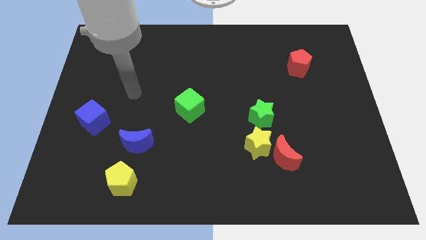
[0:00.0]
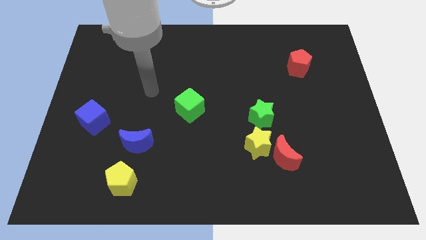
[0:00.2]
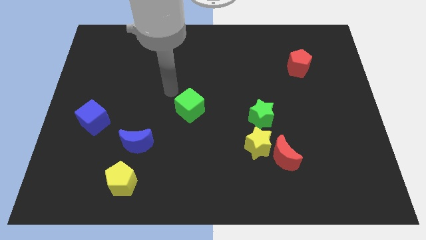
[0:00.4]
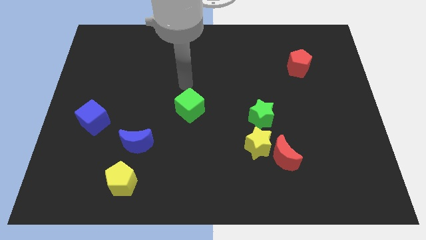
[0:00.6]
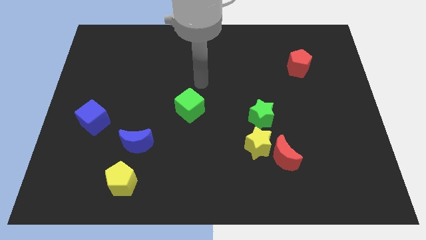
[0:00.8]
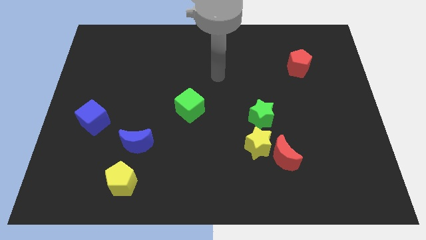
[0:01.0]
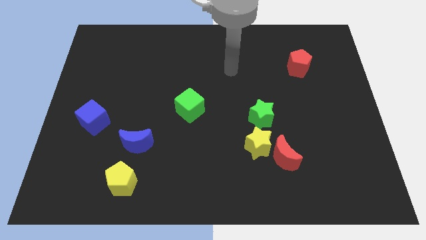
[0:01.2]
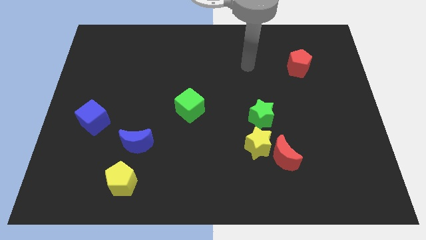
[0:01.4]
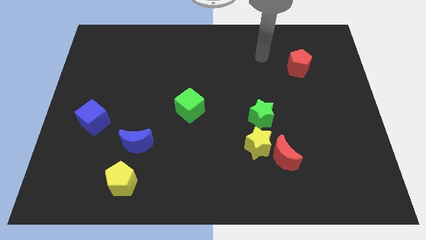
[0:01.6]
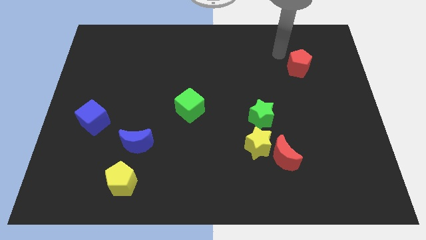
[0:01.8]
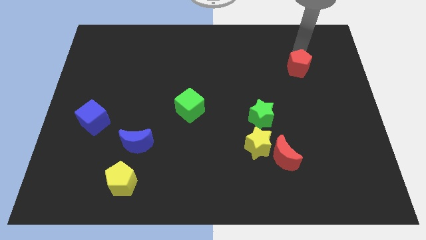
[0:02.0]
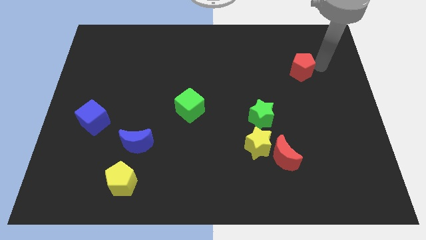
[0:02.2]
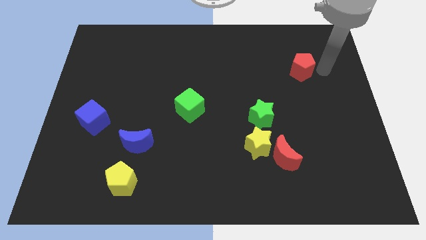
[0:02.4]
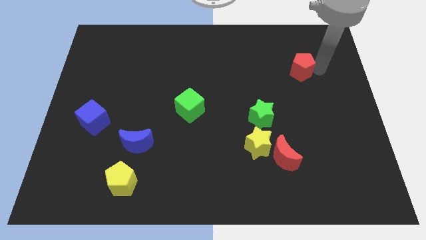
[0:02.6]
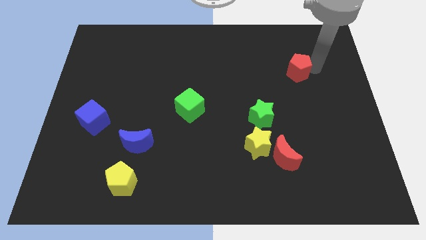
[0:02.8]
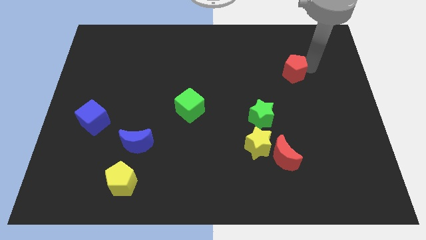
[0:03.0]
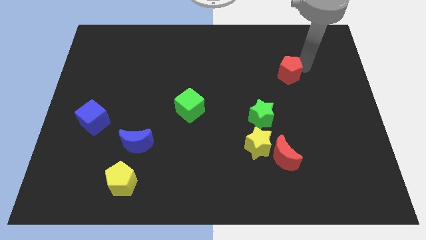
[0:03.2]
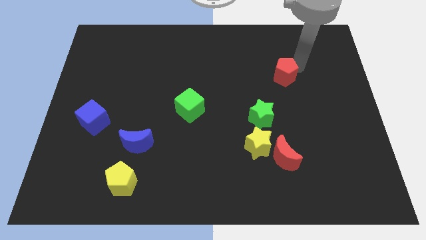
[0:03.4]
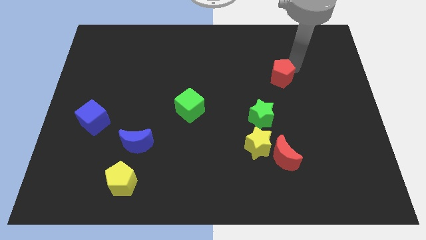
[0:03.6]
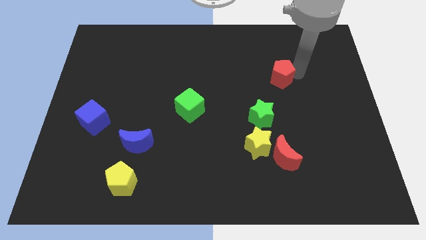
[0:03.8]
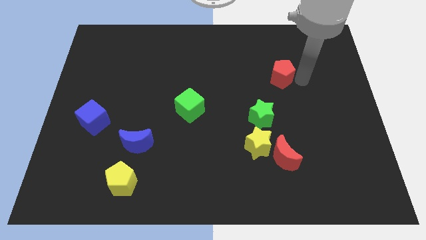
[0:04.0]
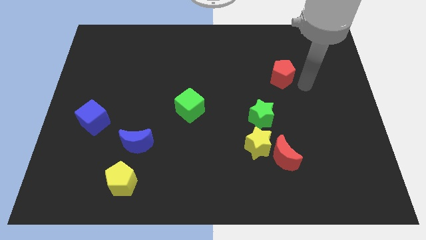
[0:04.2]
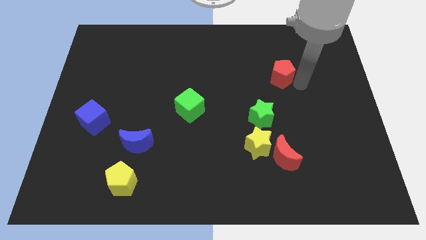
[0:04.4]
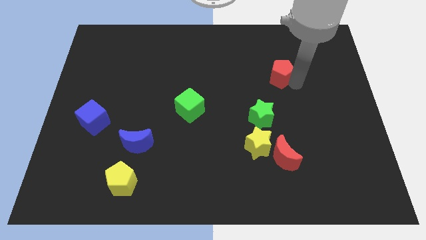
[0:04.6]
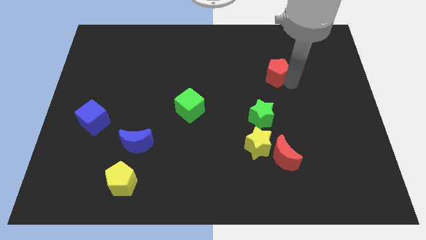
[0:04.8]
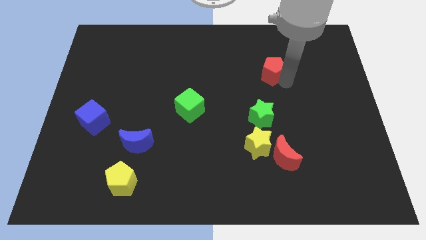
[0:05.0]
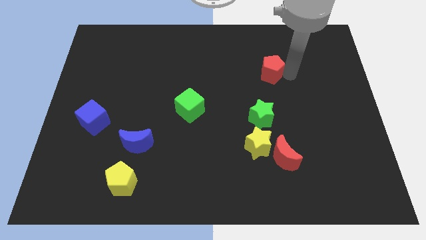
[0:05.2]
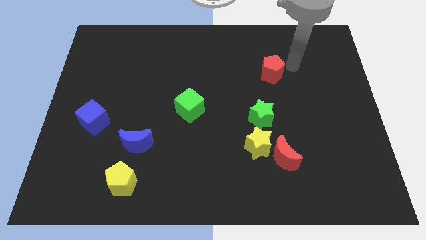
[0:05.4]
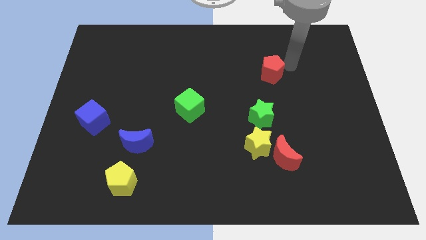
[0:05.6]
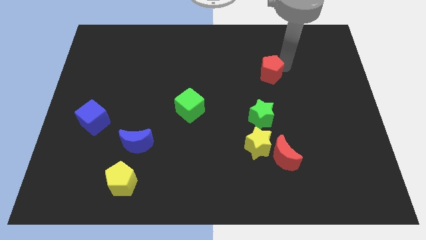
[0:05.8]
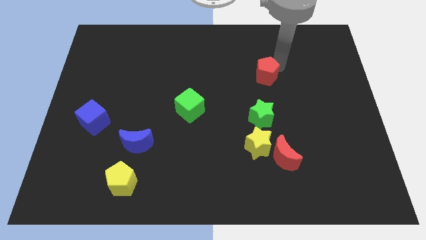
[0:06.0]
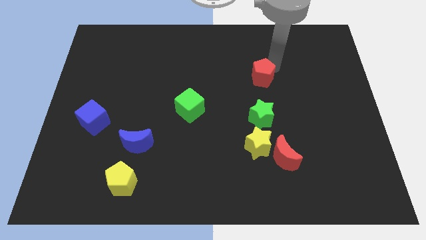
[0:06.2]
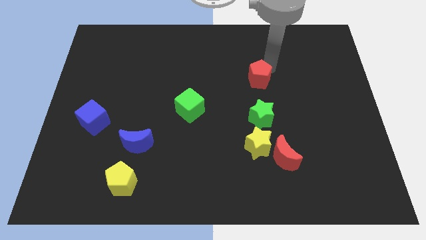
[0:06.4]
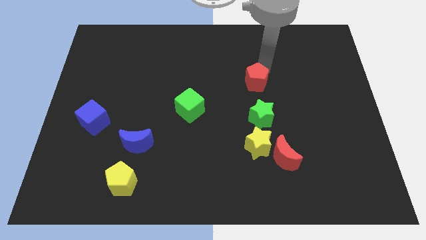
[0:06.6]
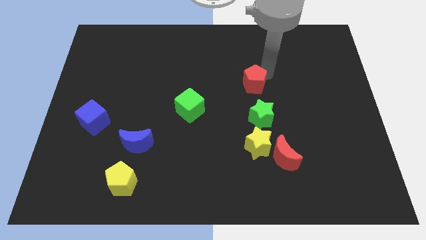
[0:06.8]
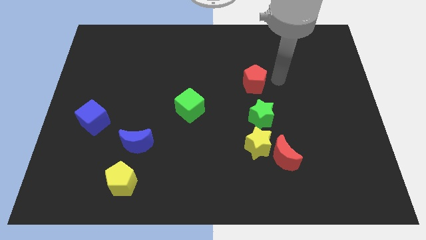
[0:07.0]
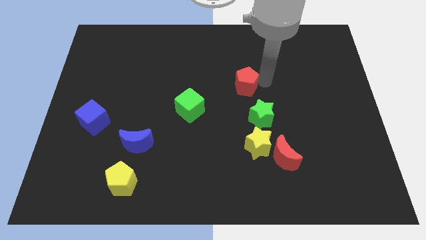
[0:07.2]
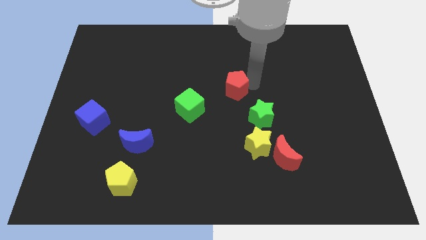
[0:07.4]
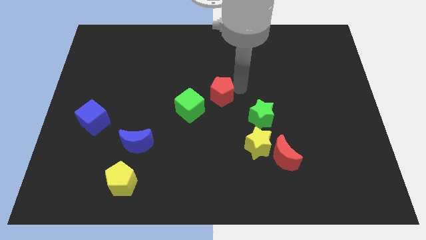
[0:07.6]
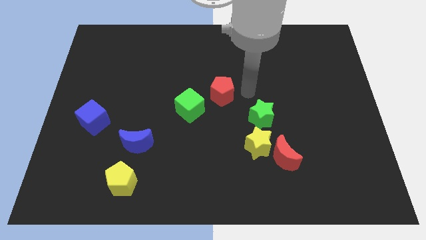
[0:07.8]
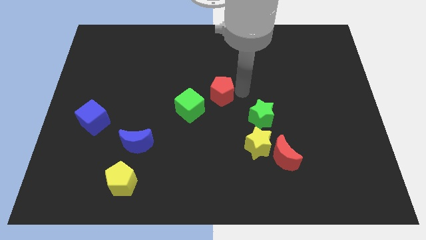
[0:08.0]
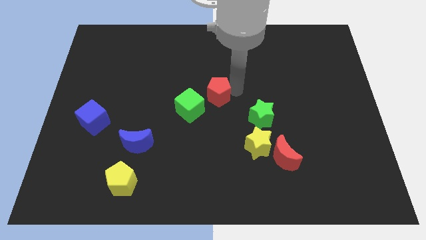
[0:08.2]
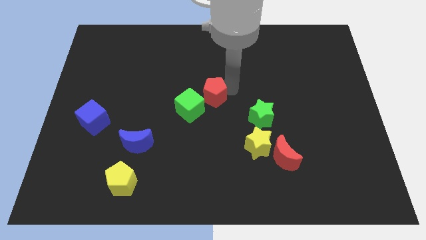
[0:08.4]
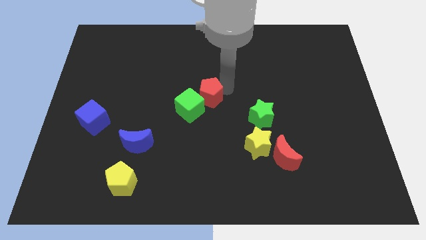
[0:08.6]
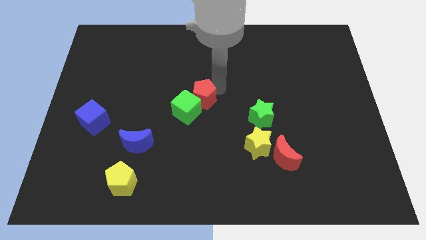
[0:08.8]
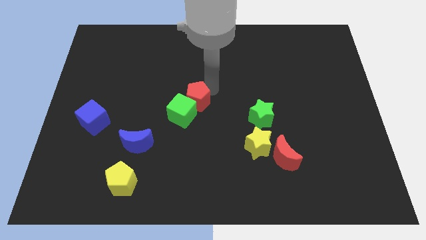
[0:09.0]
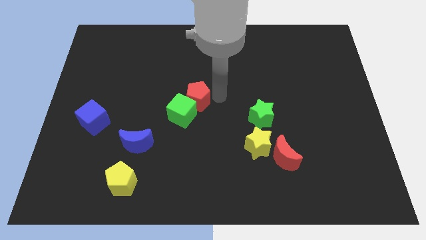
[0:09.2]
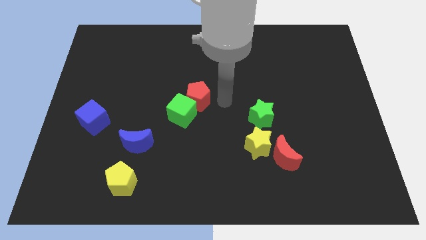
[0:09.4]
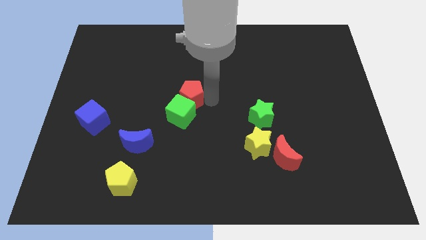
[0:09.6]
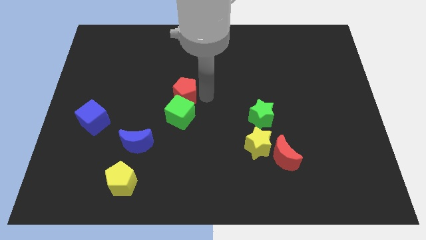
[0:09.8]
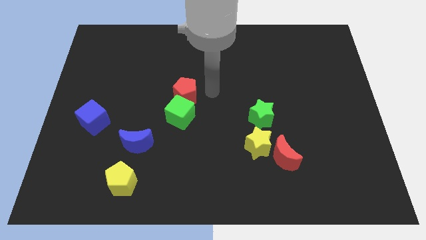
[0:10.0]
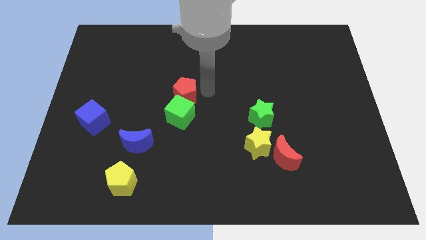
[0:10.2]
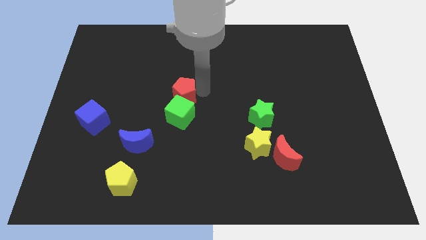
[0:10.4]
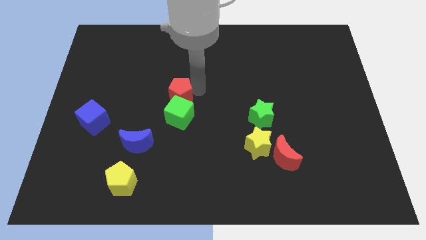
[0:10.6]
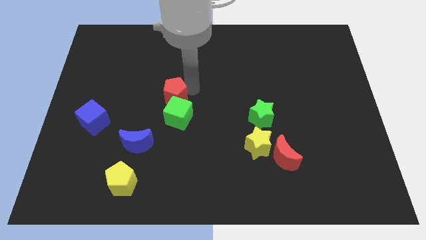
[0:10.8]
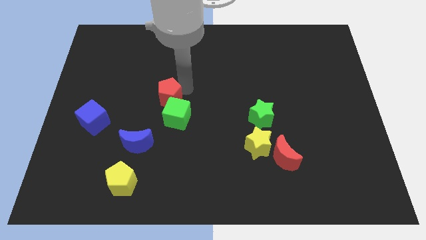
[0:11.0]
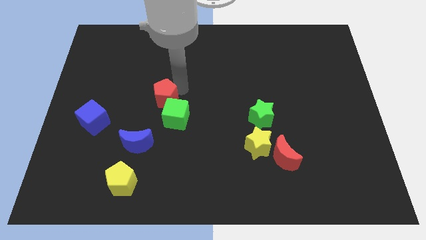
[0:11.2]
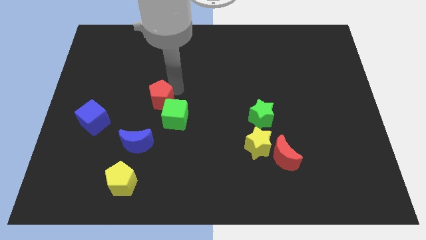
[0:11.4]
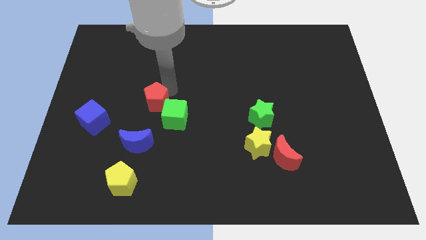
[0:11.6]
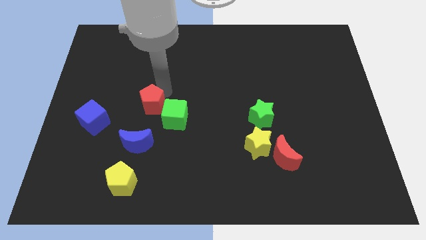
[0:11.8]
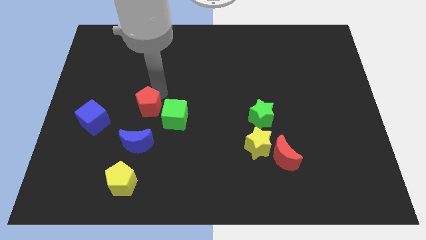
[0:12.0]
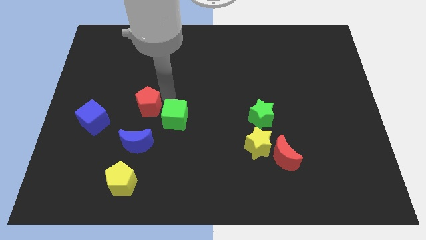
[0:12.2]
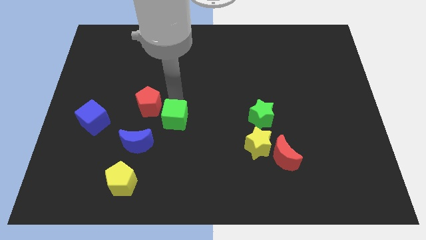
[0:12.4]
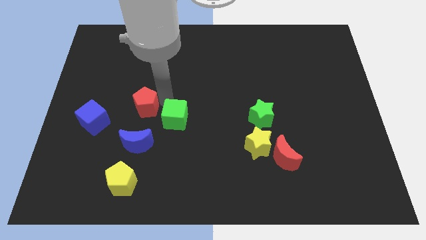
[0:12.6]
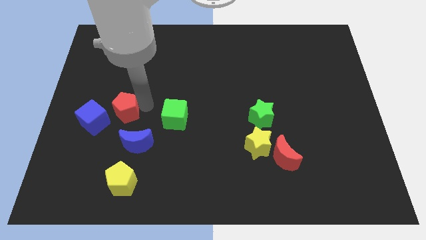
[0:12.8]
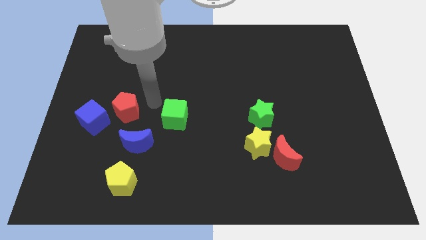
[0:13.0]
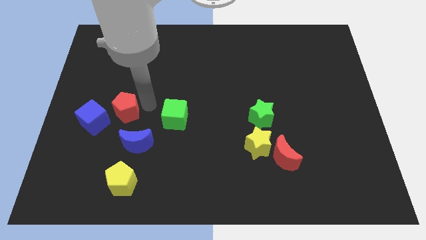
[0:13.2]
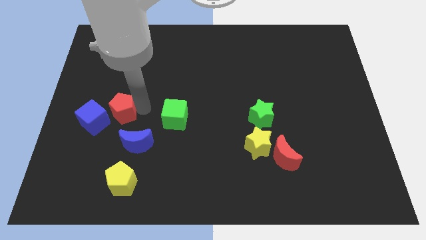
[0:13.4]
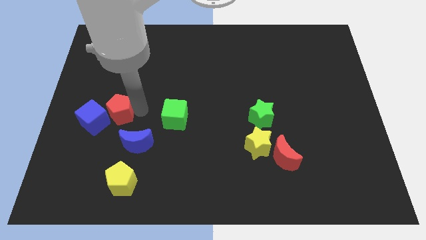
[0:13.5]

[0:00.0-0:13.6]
put the red pentagon to the blue cube
